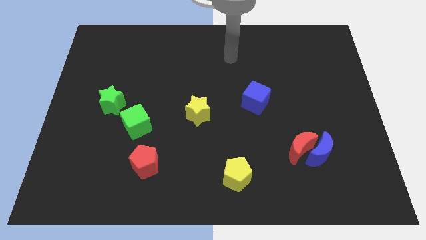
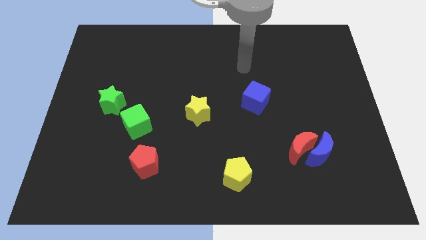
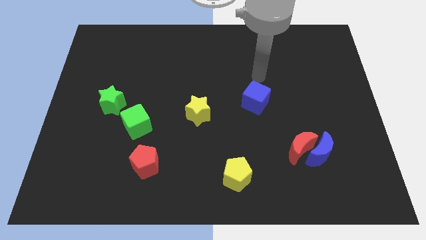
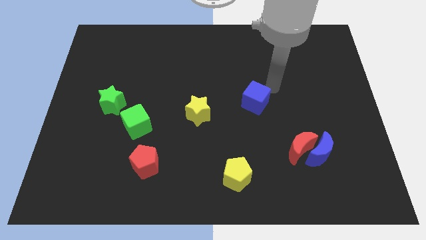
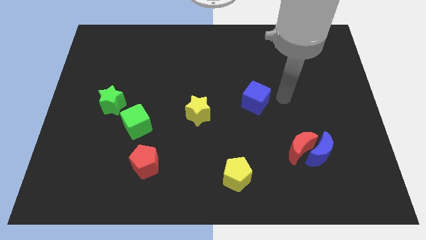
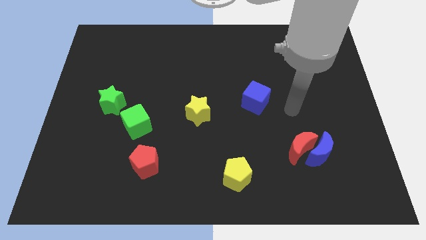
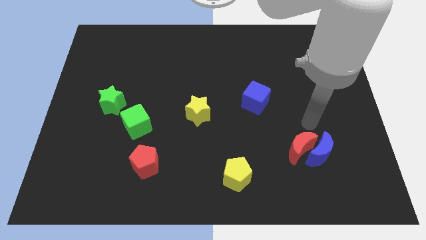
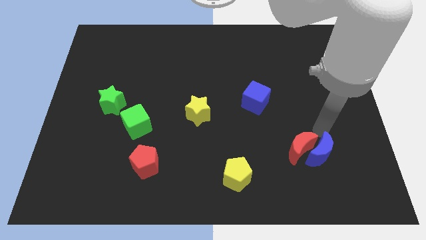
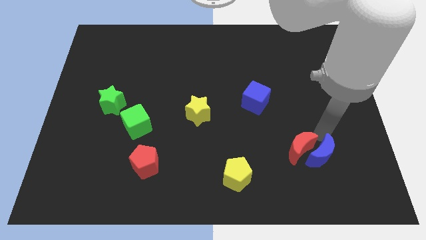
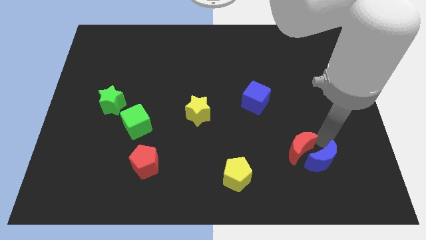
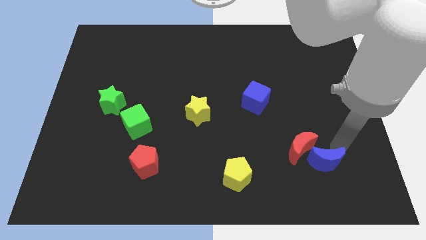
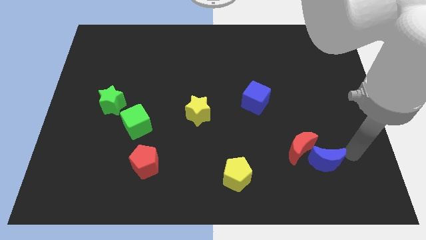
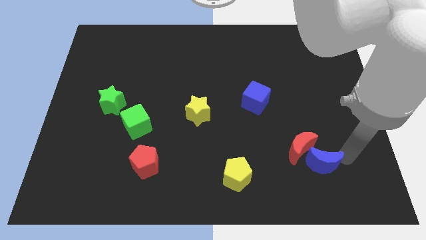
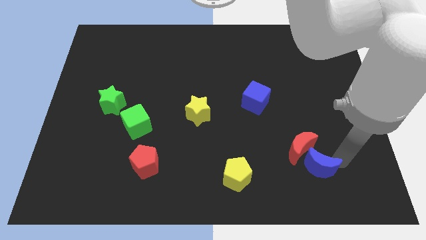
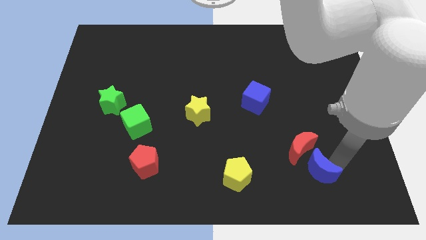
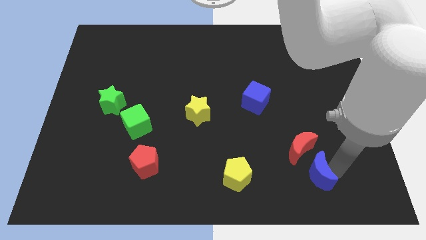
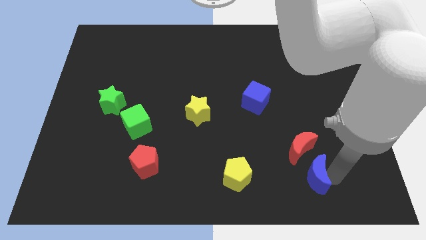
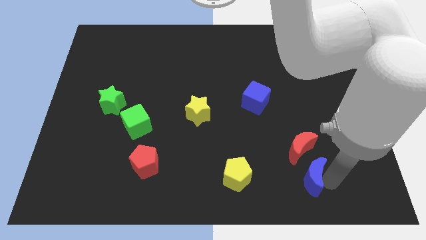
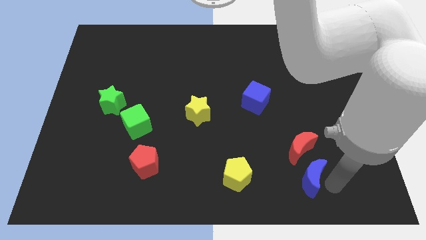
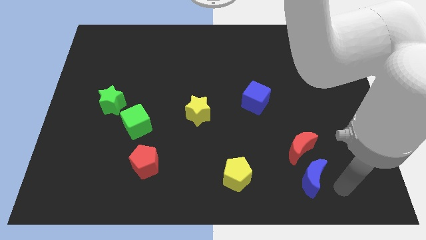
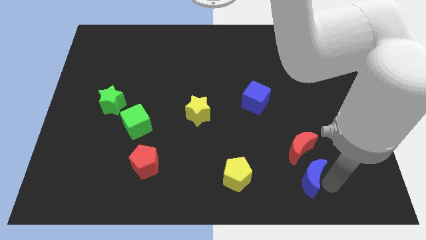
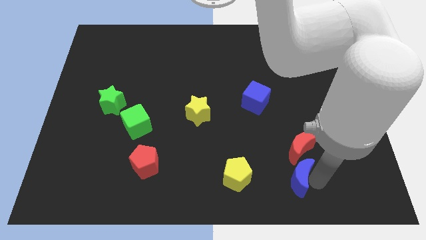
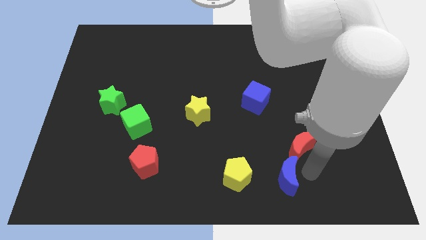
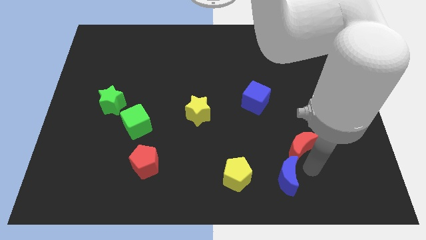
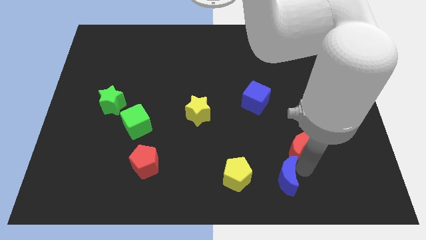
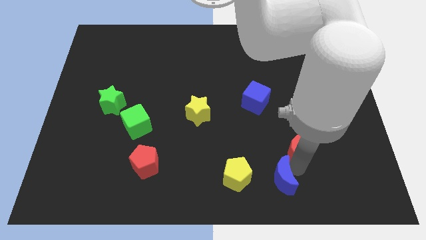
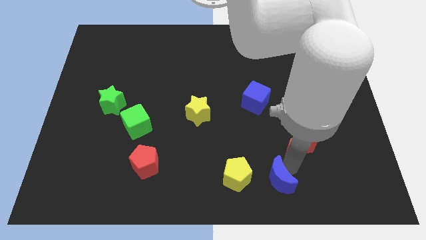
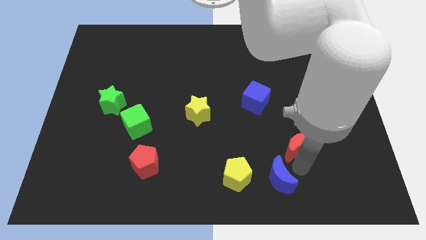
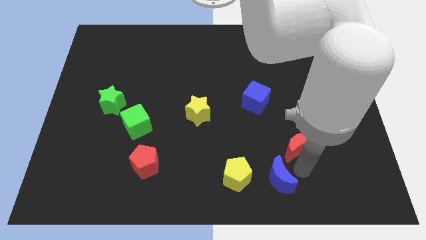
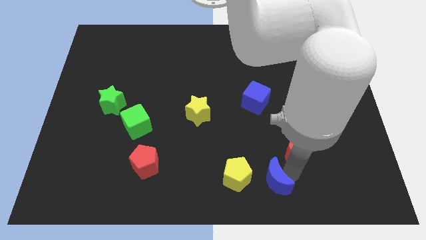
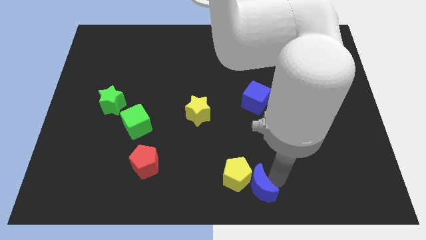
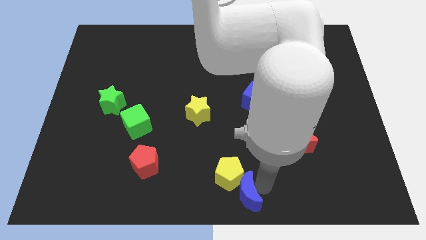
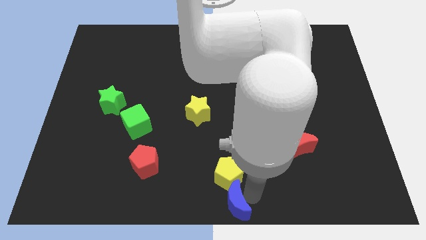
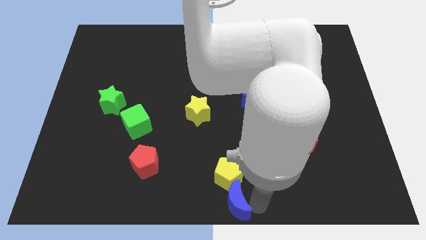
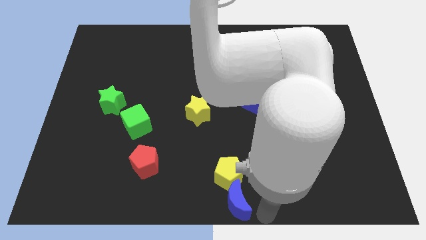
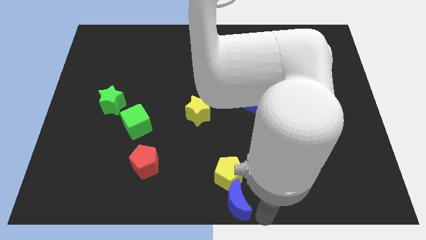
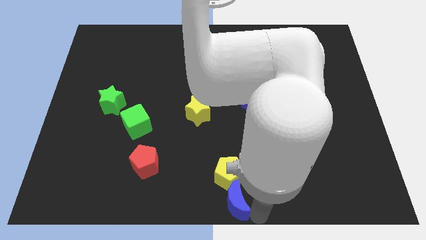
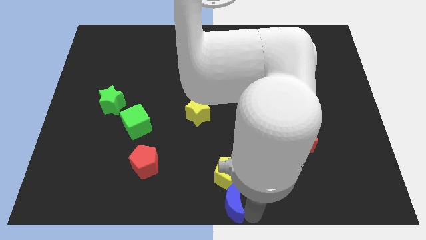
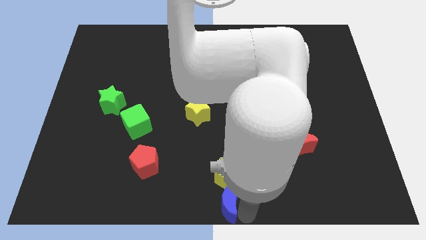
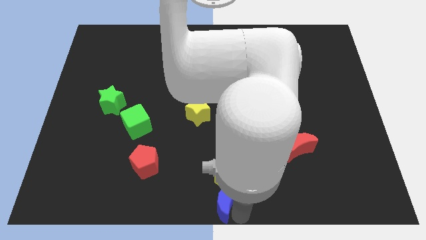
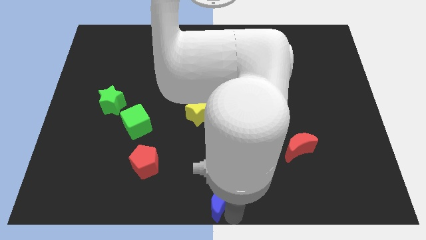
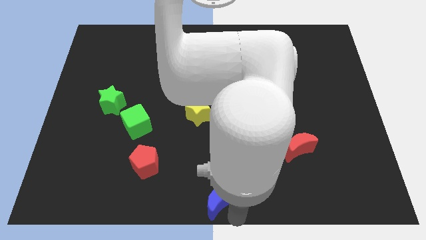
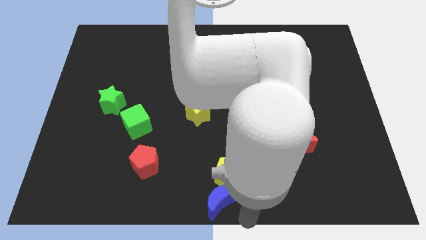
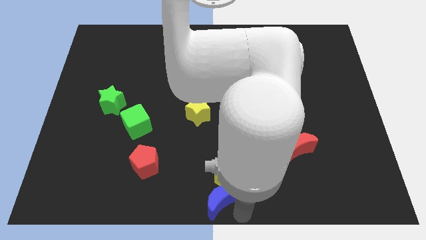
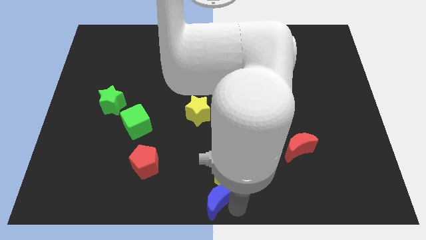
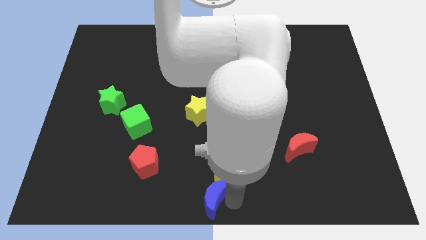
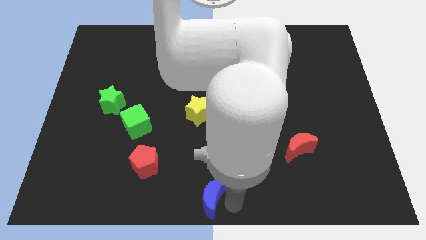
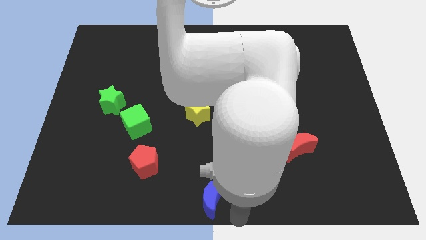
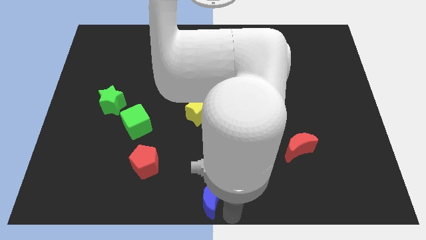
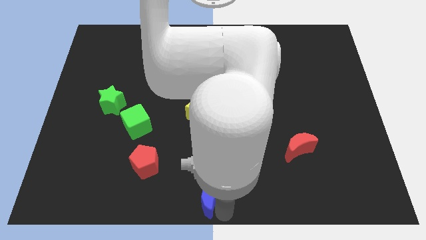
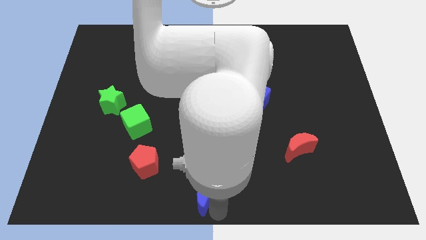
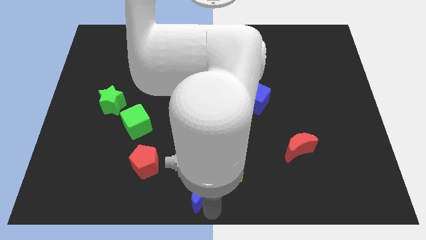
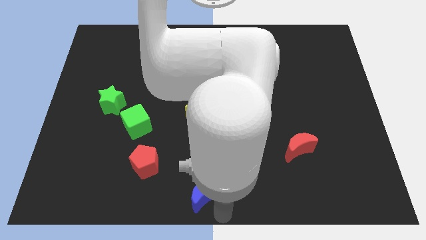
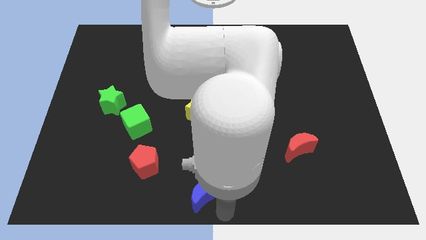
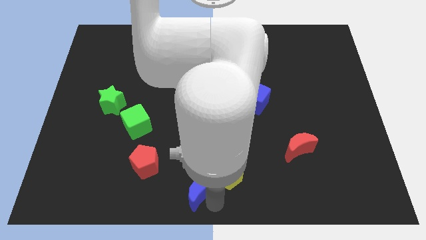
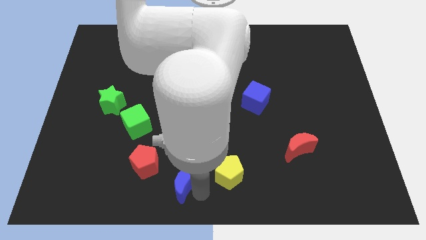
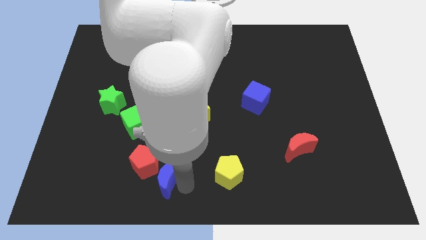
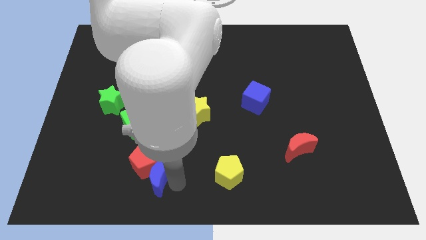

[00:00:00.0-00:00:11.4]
slide the blue moon to the red pentagon

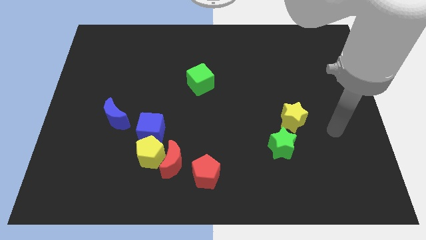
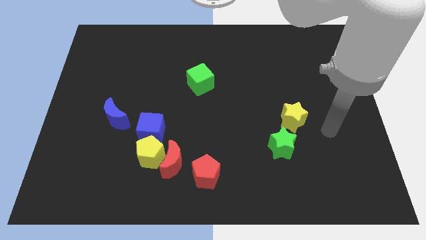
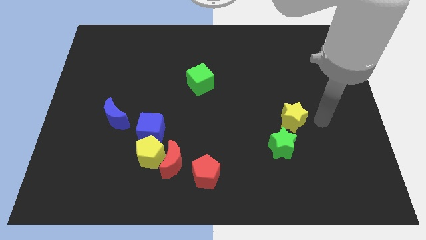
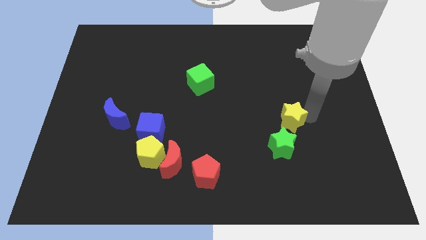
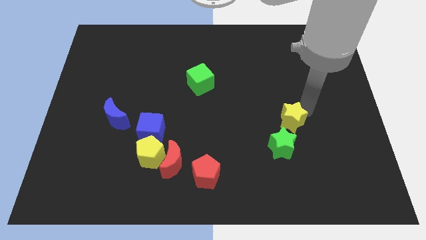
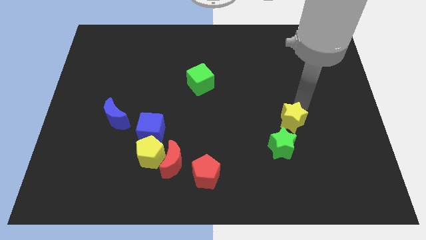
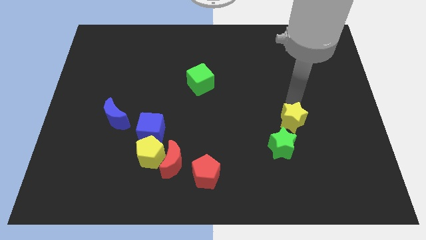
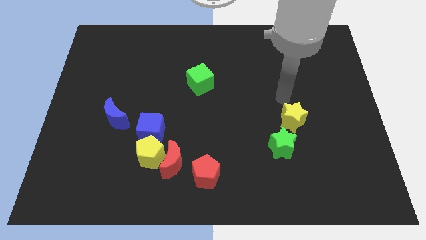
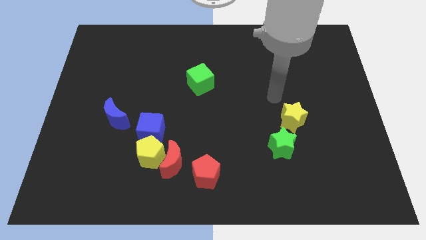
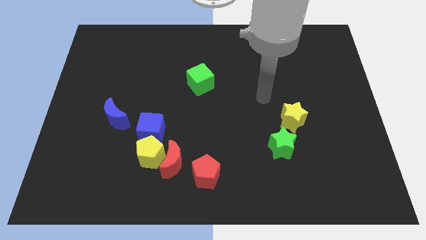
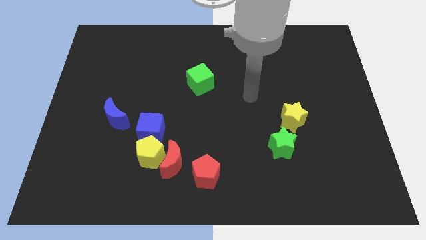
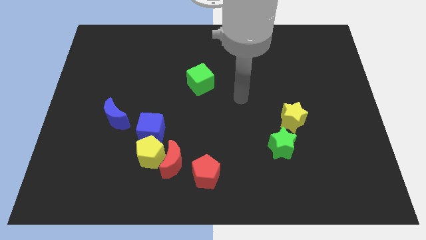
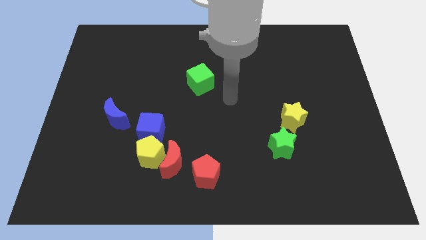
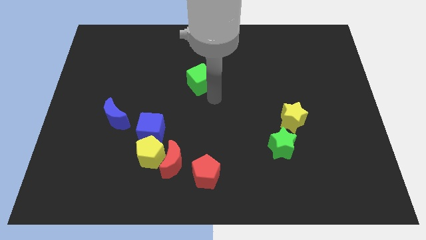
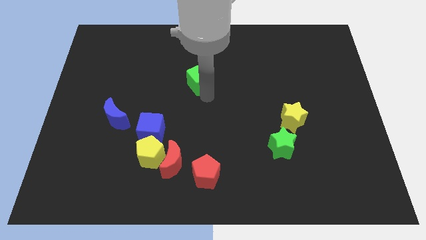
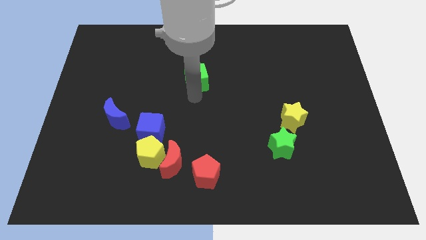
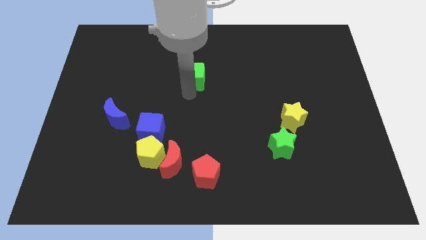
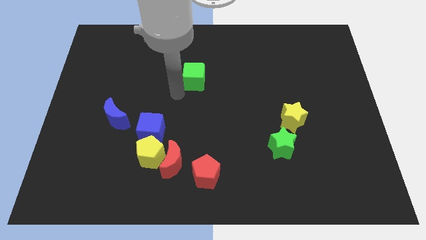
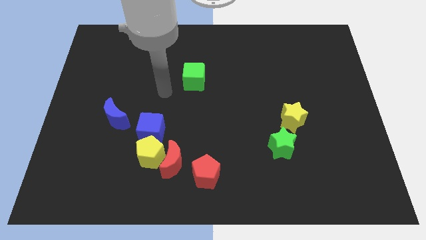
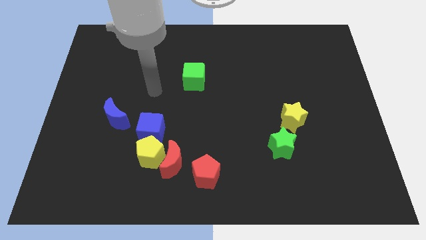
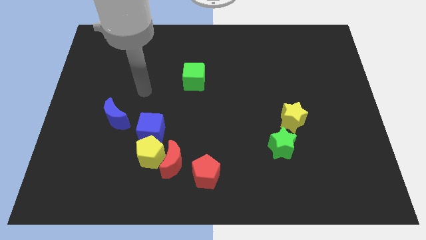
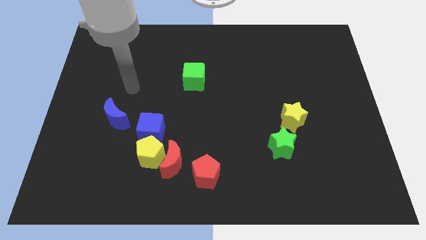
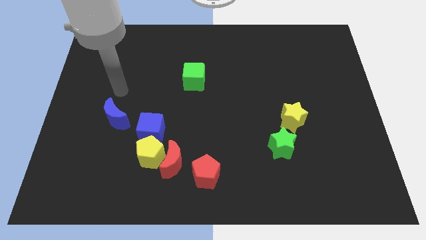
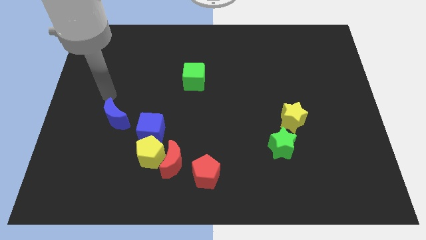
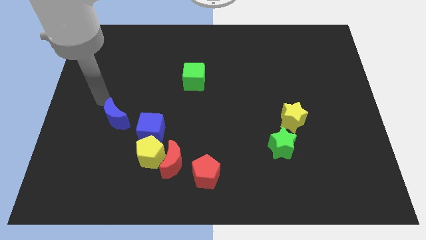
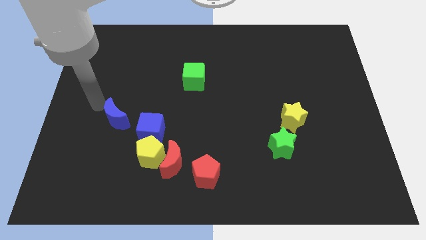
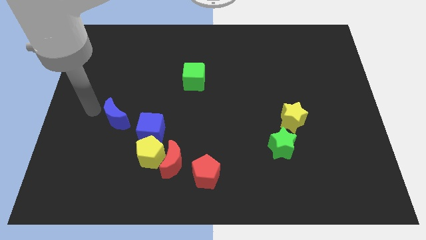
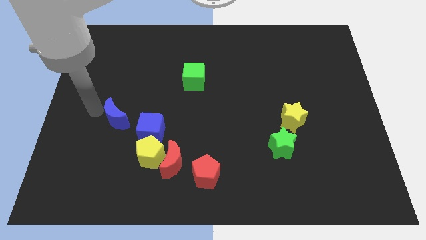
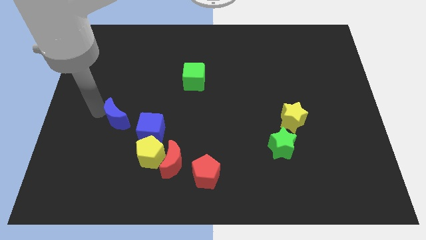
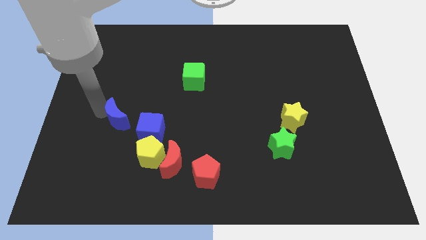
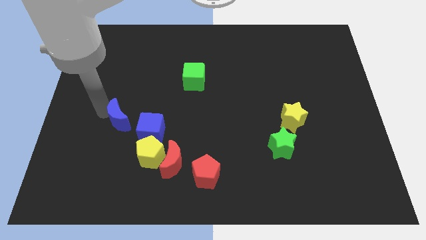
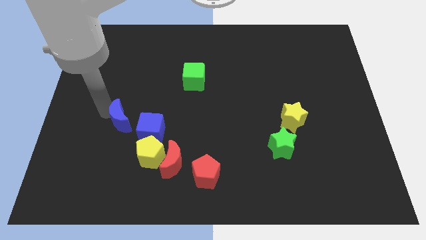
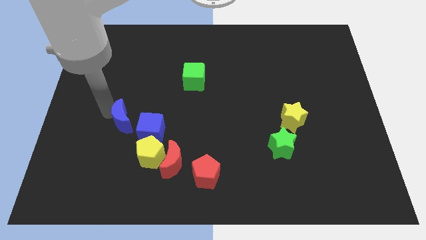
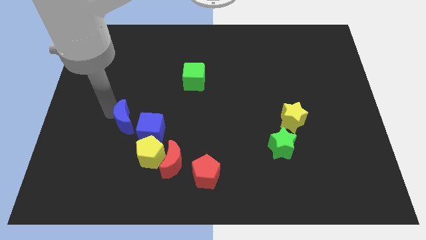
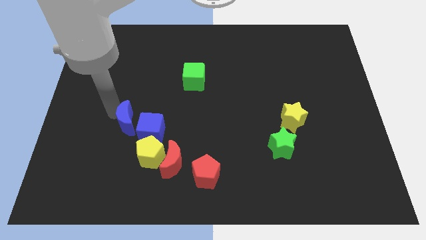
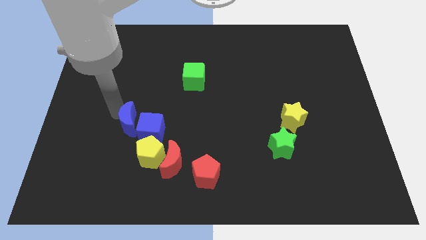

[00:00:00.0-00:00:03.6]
move the blue moon next to the blue cube
